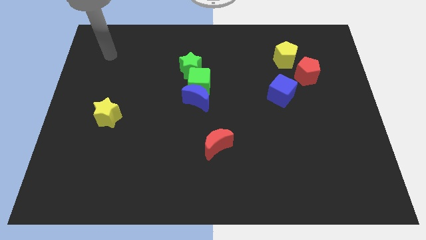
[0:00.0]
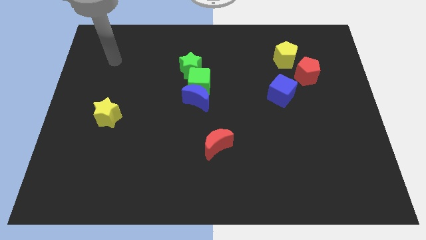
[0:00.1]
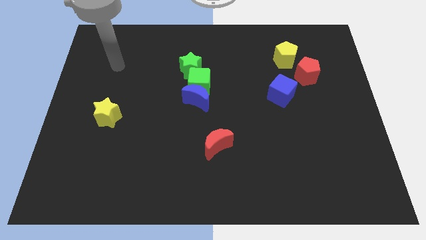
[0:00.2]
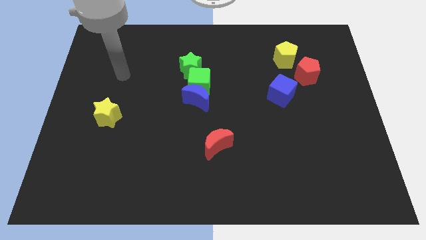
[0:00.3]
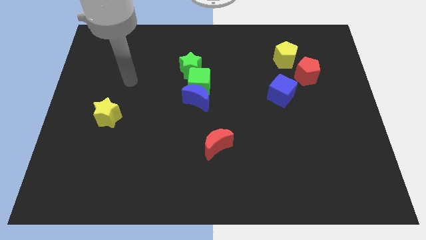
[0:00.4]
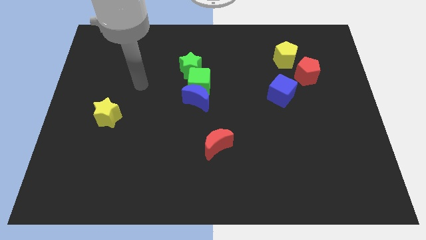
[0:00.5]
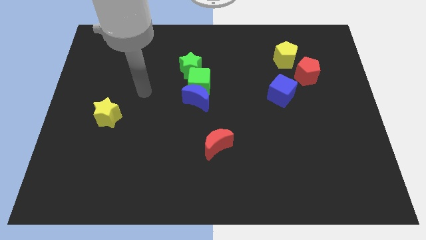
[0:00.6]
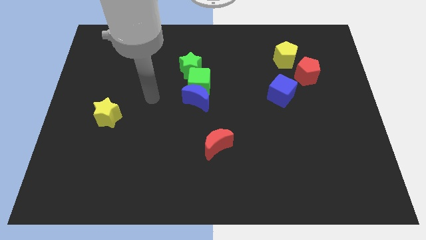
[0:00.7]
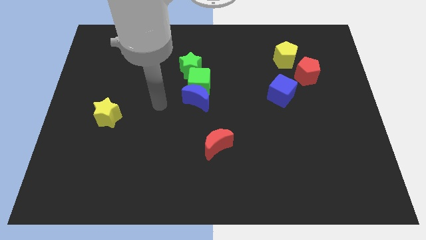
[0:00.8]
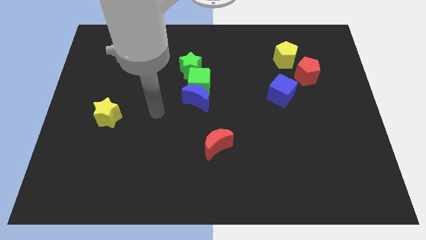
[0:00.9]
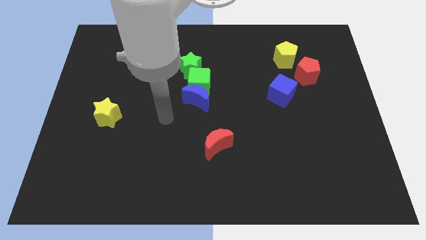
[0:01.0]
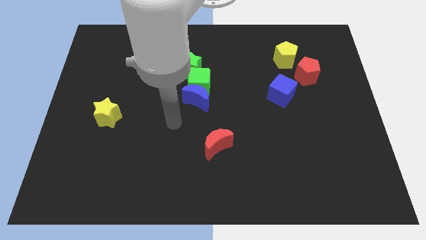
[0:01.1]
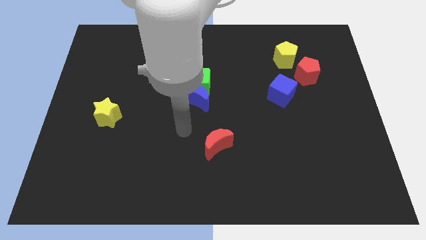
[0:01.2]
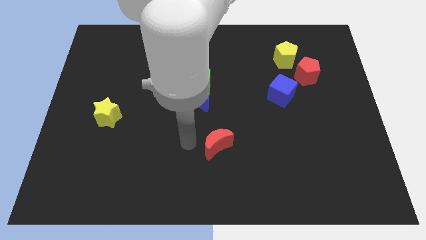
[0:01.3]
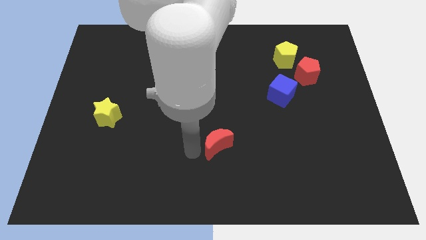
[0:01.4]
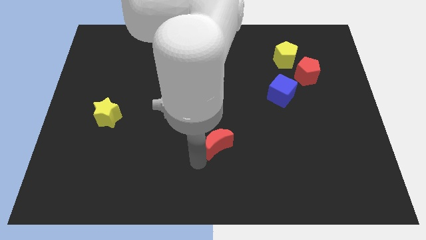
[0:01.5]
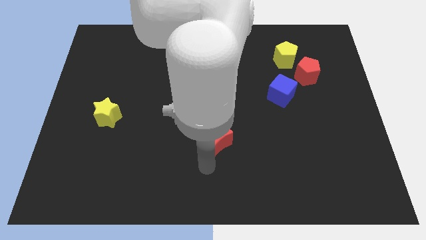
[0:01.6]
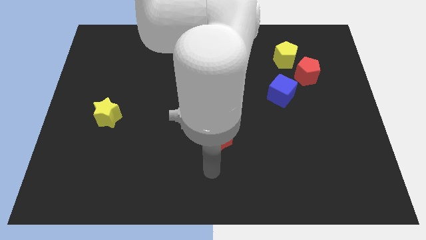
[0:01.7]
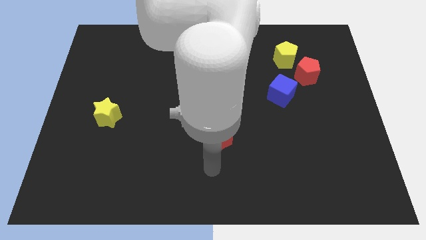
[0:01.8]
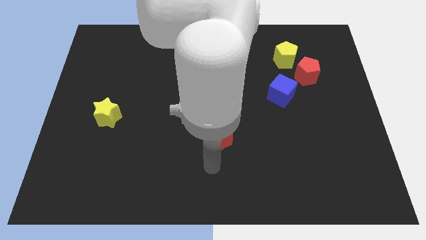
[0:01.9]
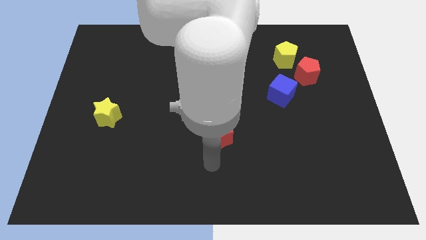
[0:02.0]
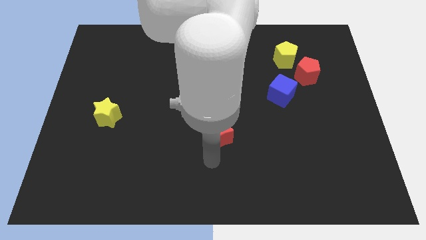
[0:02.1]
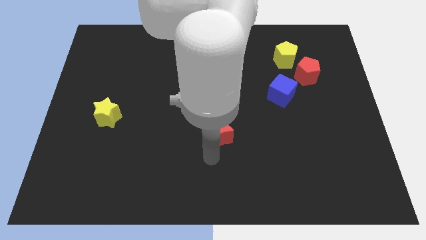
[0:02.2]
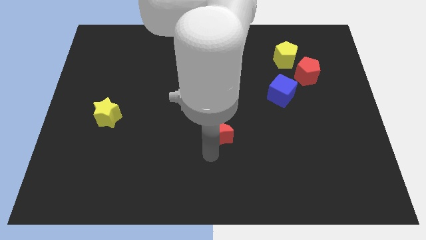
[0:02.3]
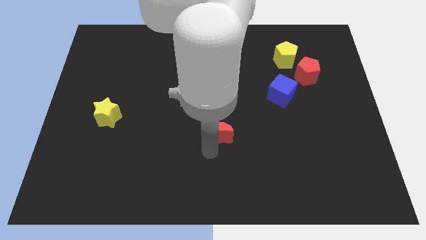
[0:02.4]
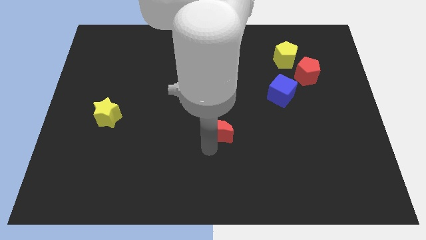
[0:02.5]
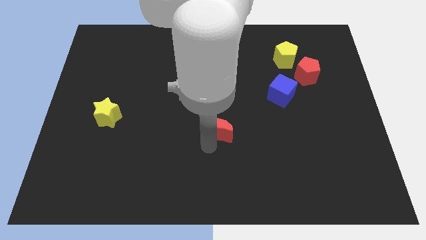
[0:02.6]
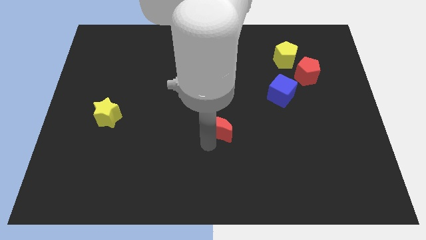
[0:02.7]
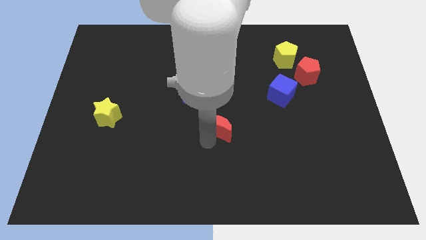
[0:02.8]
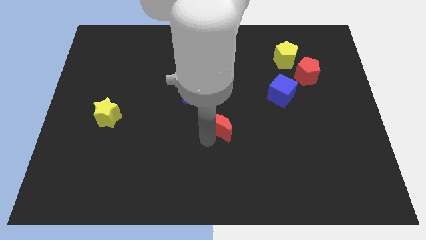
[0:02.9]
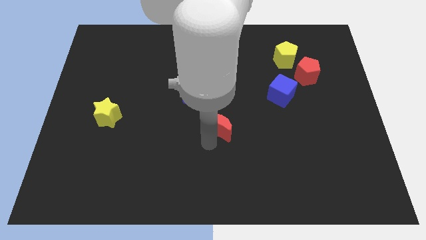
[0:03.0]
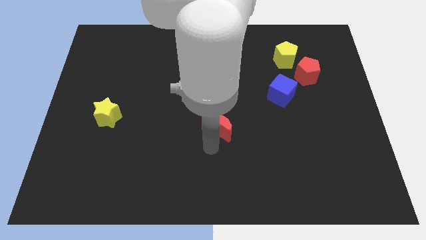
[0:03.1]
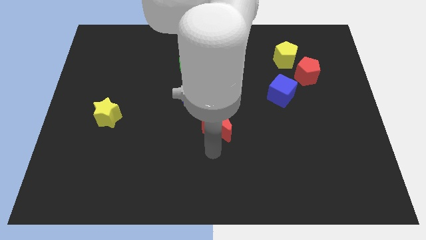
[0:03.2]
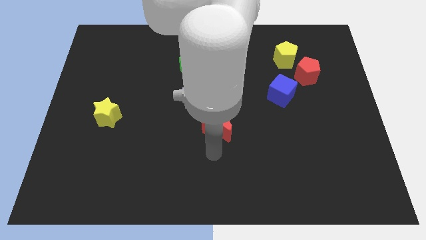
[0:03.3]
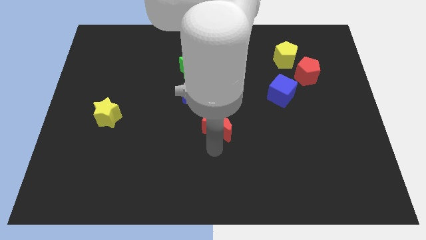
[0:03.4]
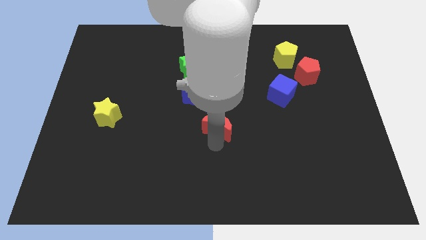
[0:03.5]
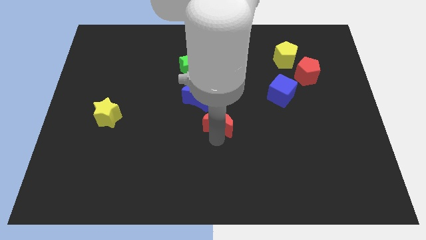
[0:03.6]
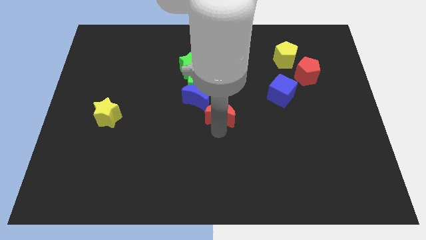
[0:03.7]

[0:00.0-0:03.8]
push the red moon slightly upwards

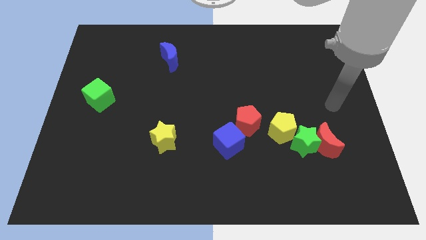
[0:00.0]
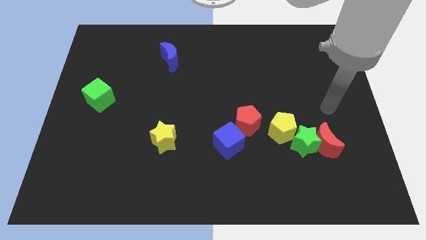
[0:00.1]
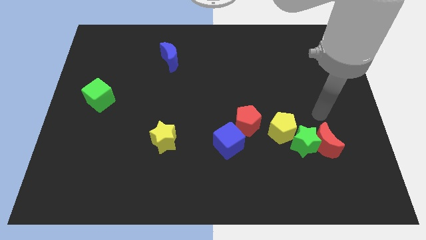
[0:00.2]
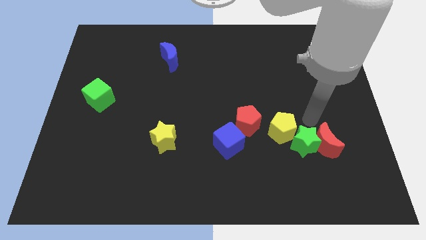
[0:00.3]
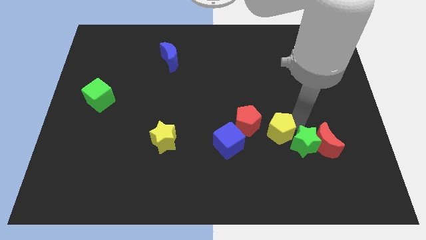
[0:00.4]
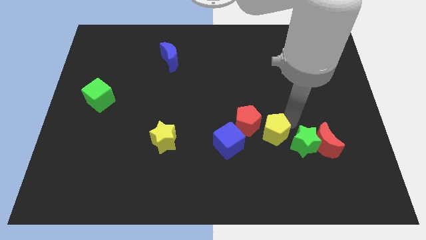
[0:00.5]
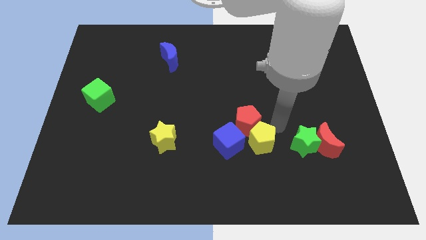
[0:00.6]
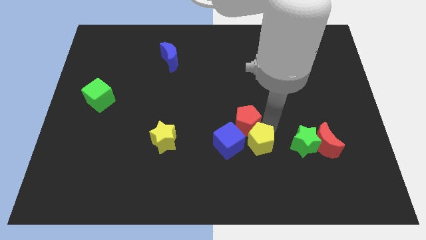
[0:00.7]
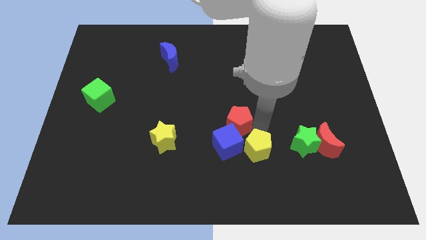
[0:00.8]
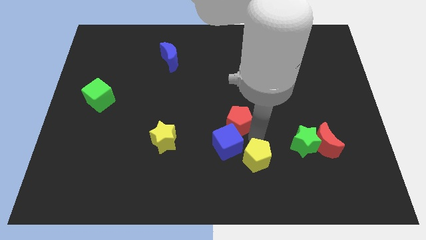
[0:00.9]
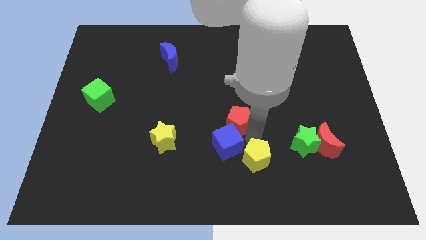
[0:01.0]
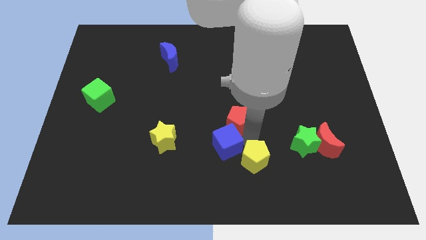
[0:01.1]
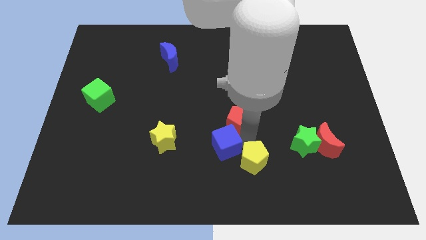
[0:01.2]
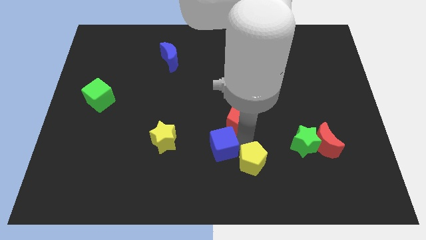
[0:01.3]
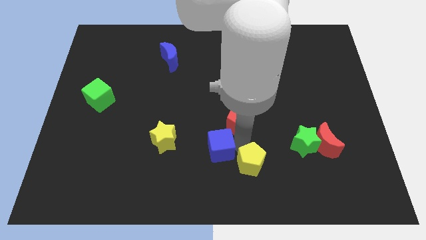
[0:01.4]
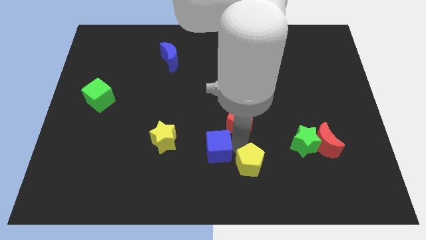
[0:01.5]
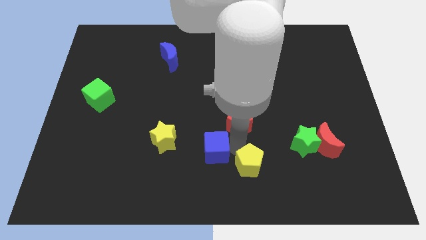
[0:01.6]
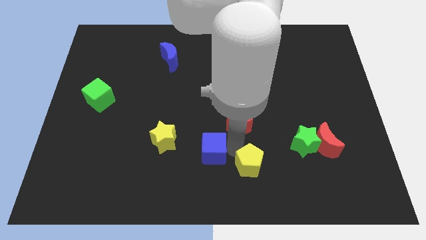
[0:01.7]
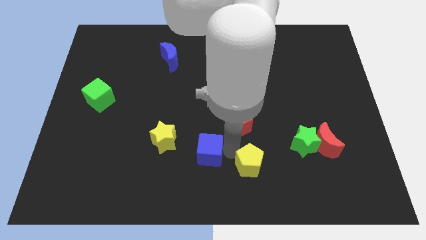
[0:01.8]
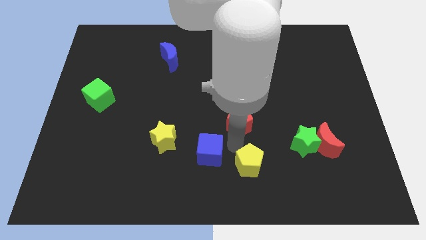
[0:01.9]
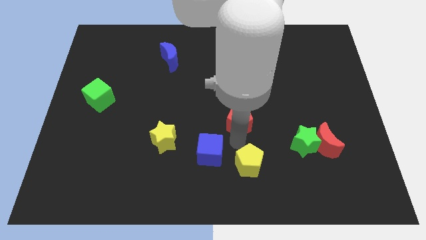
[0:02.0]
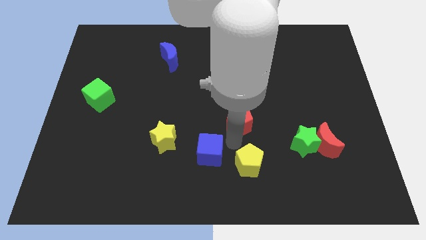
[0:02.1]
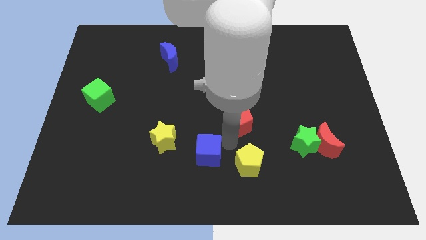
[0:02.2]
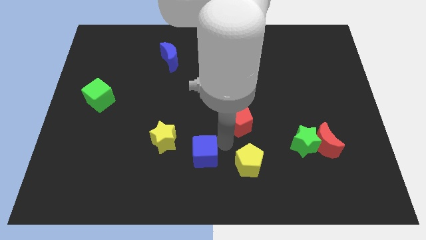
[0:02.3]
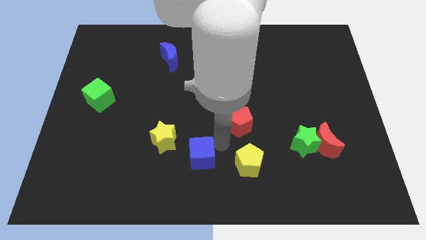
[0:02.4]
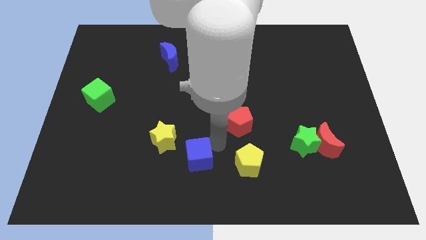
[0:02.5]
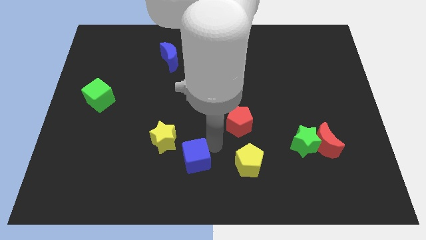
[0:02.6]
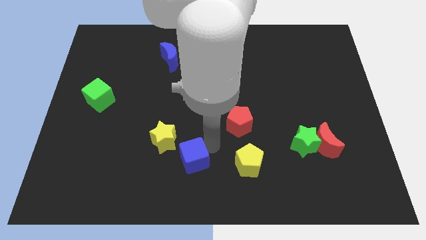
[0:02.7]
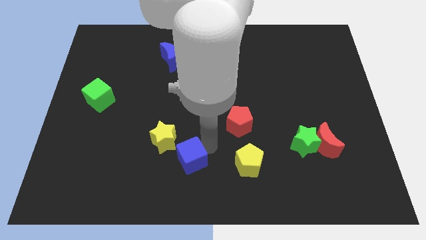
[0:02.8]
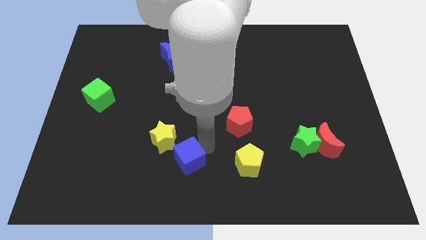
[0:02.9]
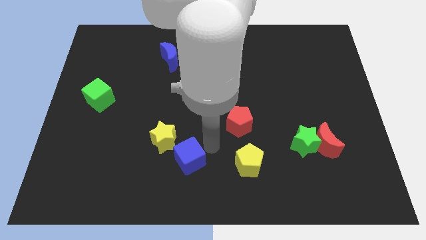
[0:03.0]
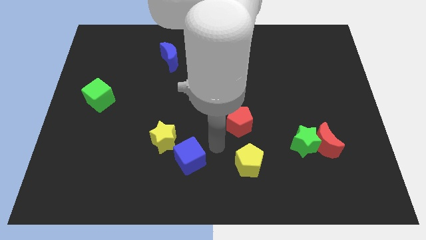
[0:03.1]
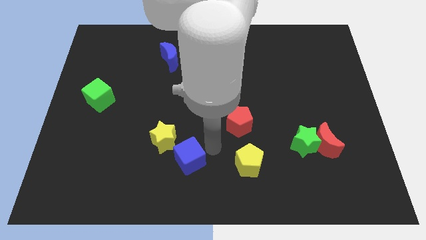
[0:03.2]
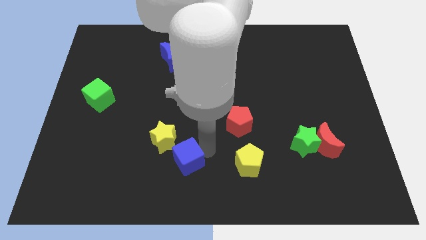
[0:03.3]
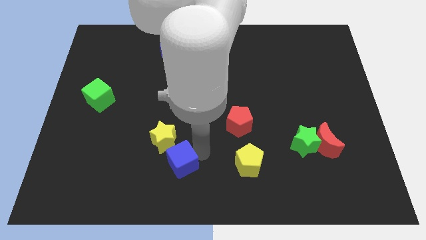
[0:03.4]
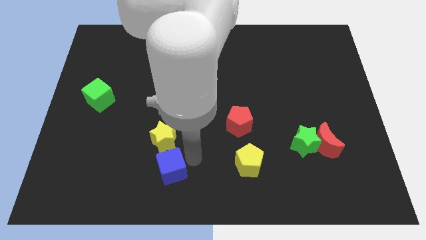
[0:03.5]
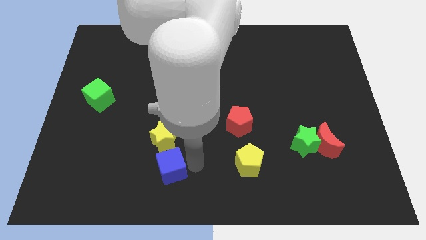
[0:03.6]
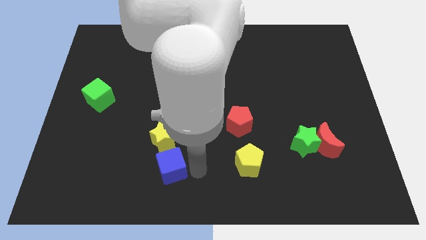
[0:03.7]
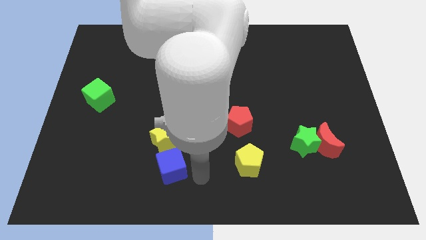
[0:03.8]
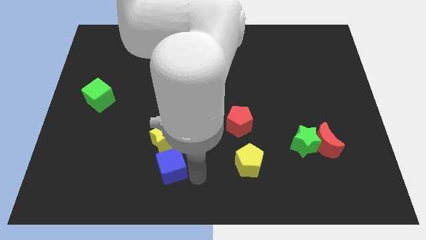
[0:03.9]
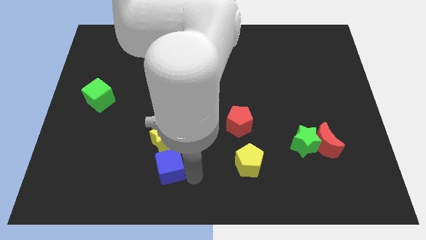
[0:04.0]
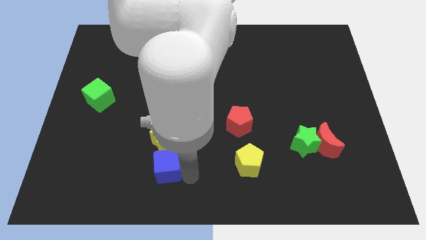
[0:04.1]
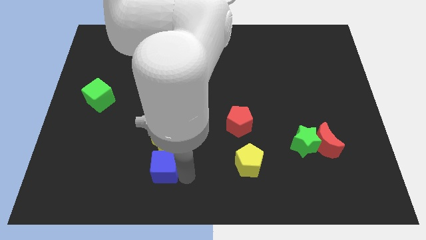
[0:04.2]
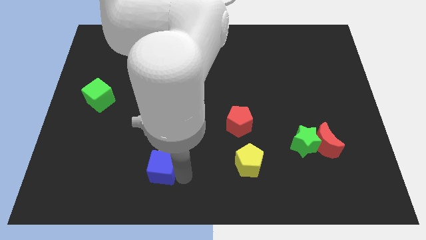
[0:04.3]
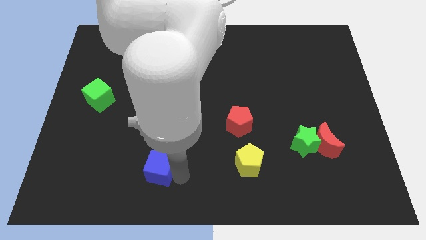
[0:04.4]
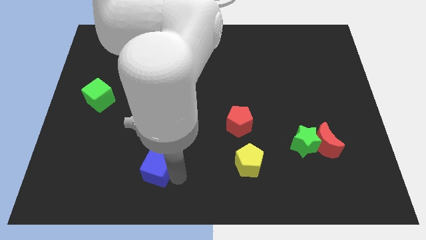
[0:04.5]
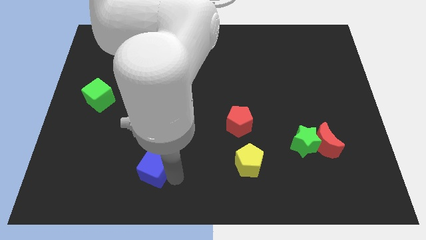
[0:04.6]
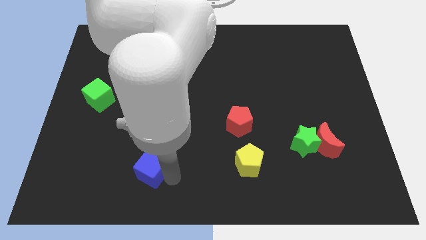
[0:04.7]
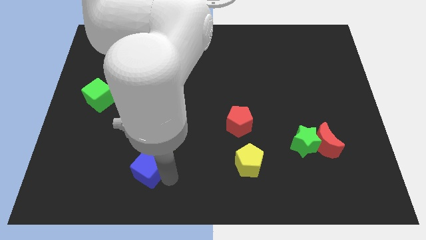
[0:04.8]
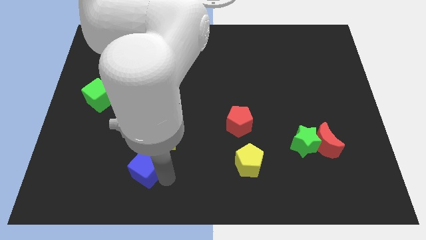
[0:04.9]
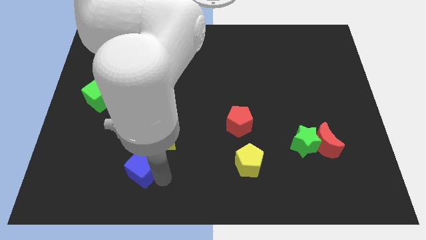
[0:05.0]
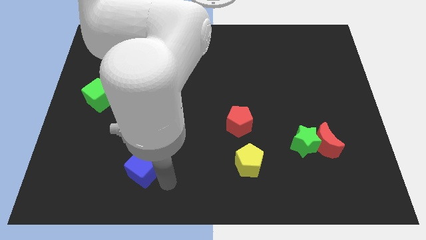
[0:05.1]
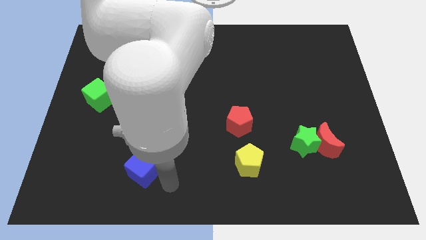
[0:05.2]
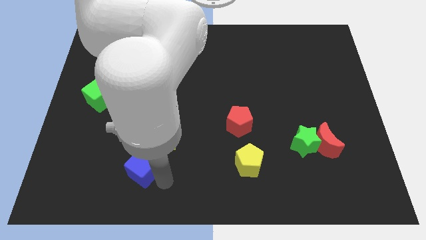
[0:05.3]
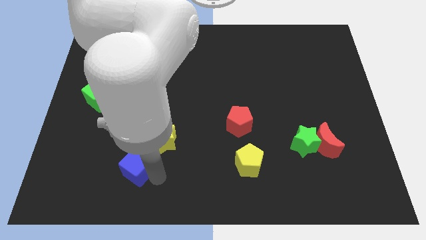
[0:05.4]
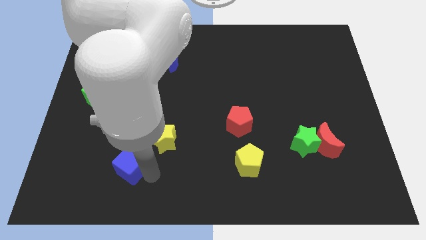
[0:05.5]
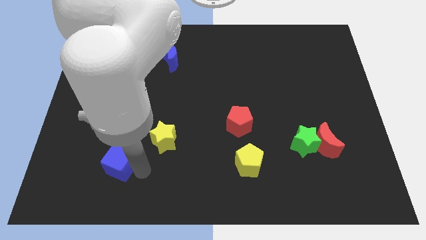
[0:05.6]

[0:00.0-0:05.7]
move the blue cube to the left
